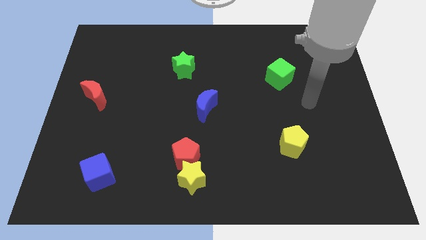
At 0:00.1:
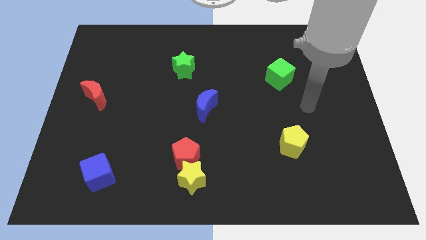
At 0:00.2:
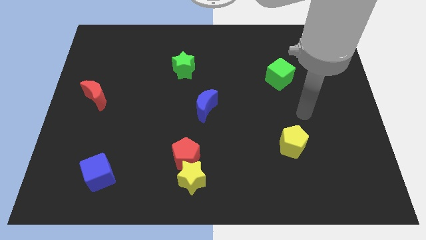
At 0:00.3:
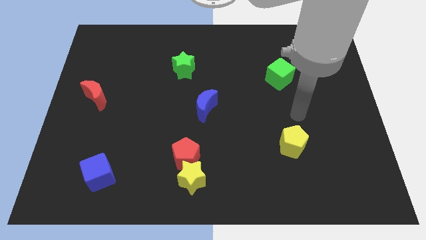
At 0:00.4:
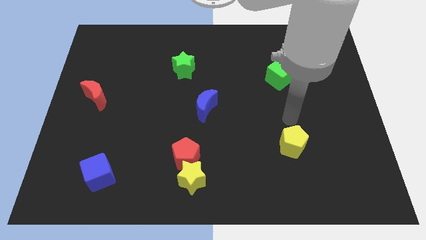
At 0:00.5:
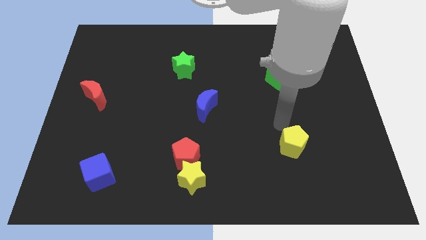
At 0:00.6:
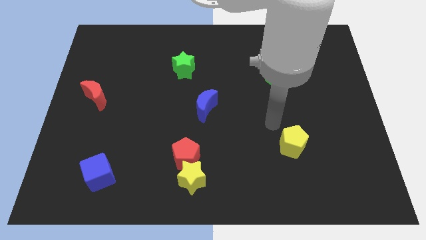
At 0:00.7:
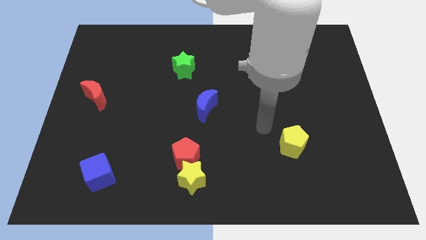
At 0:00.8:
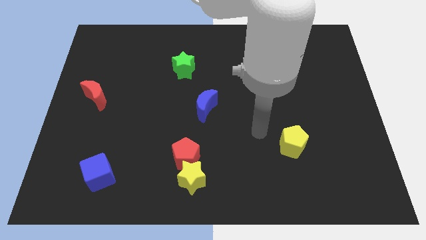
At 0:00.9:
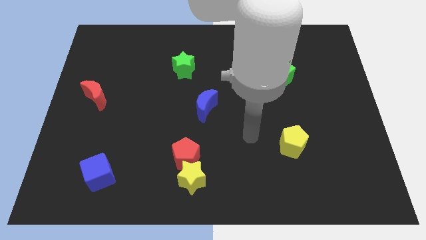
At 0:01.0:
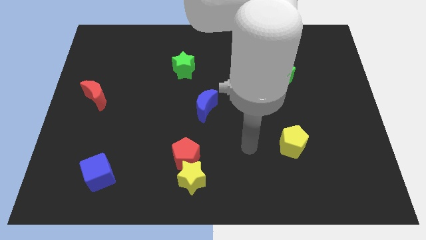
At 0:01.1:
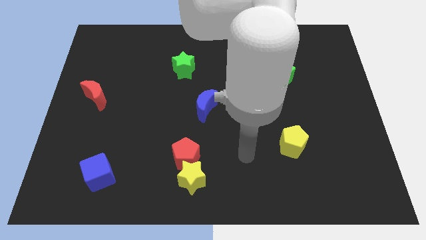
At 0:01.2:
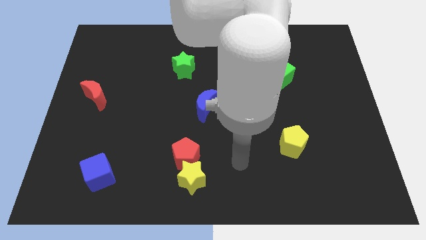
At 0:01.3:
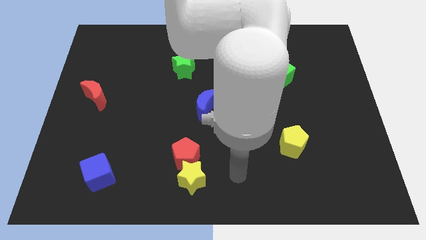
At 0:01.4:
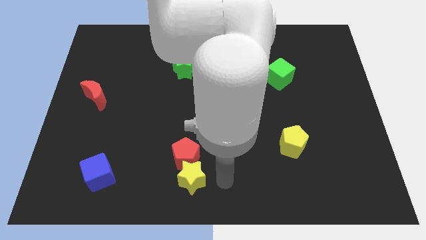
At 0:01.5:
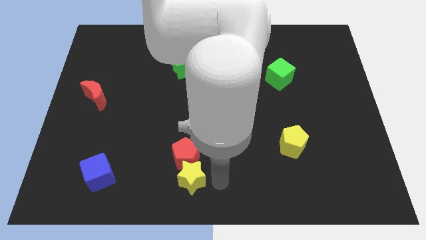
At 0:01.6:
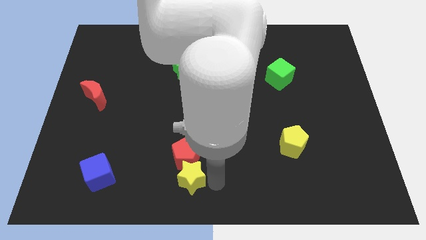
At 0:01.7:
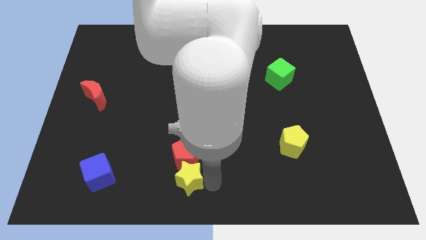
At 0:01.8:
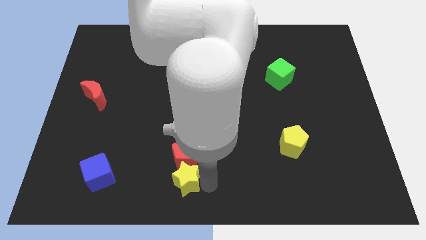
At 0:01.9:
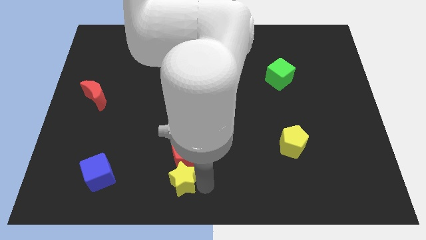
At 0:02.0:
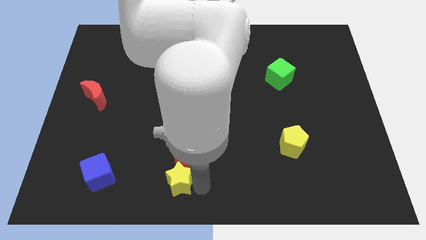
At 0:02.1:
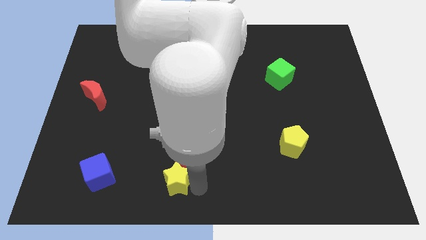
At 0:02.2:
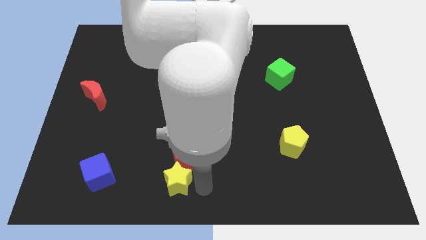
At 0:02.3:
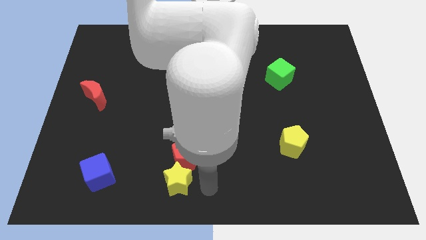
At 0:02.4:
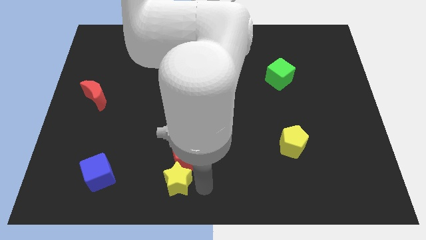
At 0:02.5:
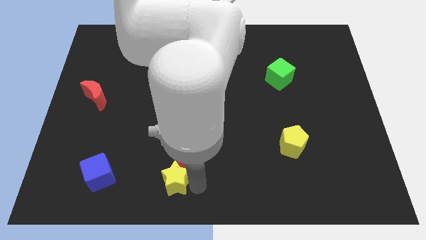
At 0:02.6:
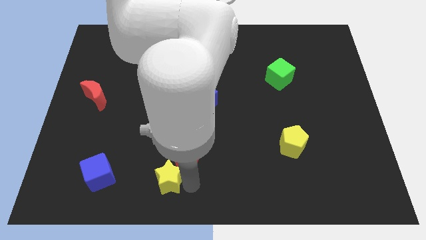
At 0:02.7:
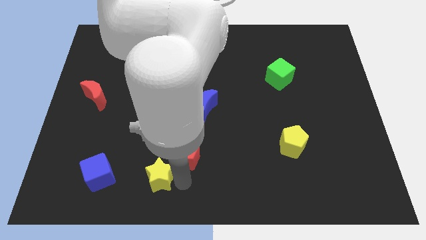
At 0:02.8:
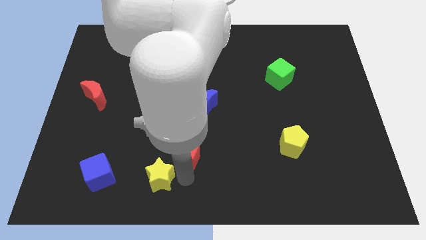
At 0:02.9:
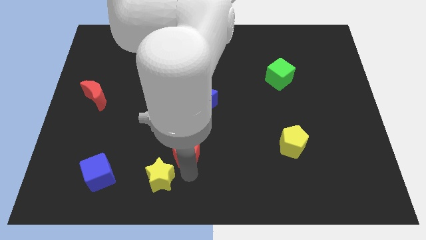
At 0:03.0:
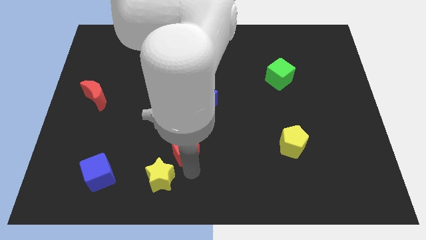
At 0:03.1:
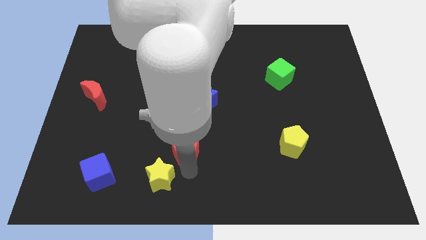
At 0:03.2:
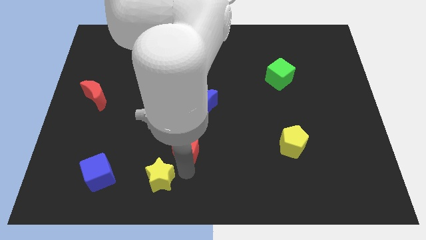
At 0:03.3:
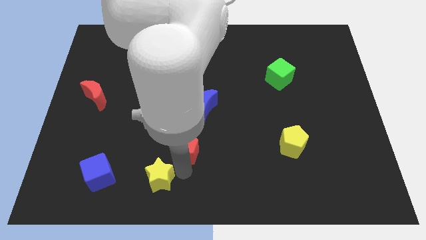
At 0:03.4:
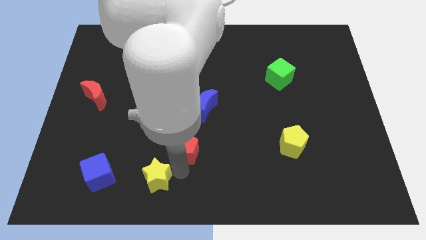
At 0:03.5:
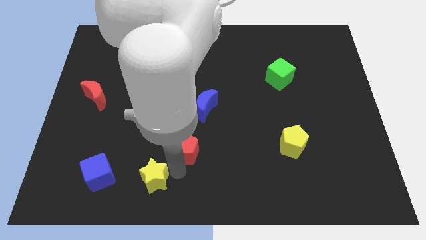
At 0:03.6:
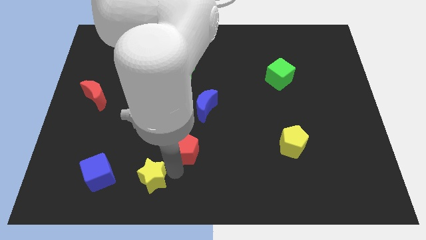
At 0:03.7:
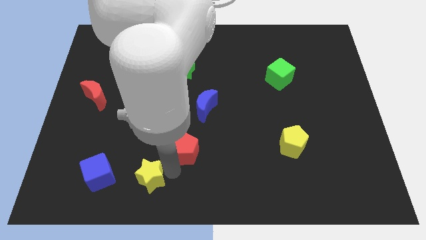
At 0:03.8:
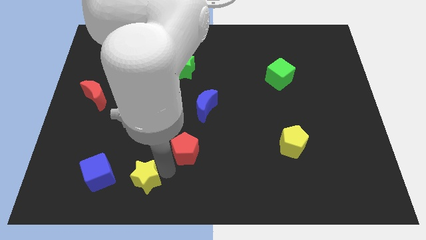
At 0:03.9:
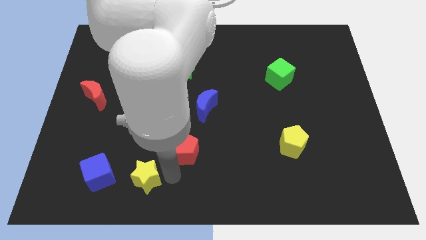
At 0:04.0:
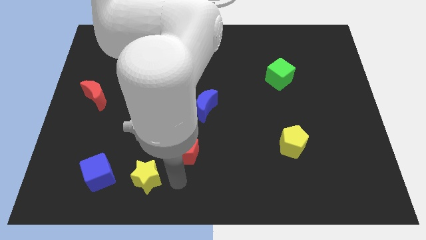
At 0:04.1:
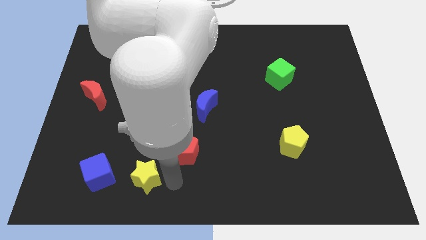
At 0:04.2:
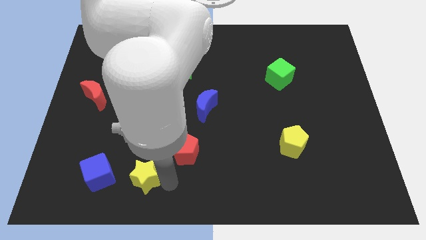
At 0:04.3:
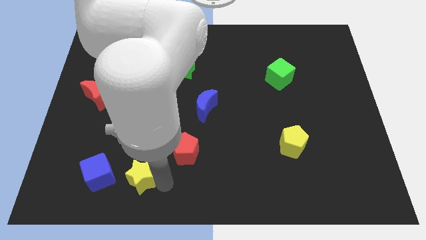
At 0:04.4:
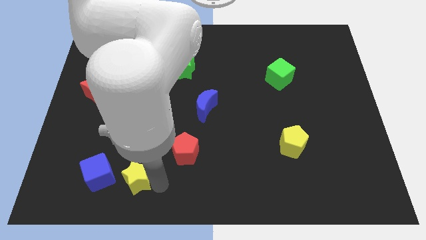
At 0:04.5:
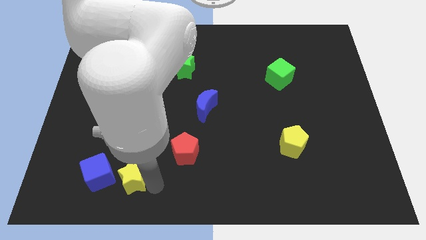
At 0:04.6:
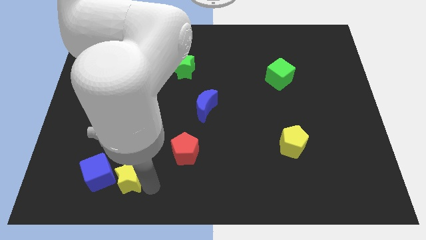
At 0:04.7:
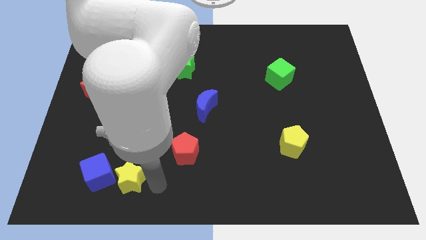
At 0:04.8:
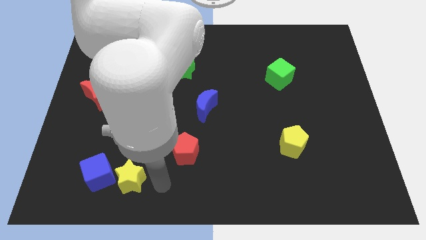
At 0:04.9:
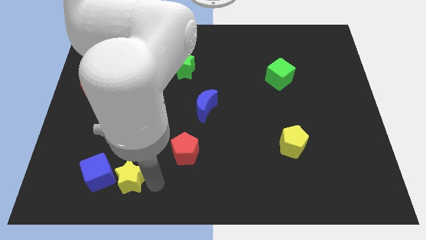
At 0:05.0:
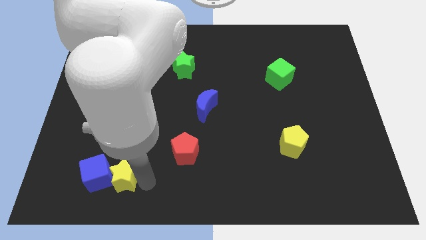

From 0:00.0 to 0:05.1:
move the yellow star towards the blue cube

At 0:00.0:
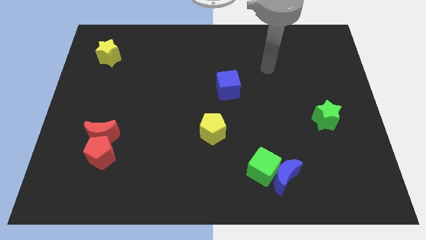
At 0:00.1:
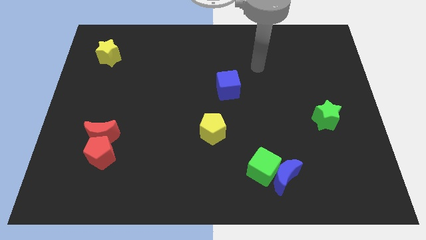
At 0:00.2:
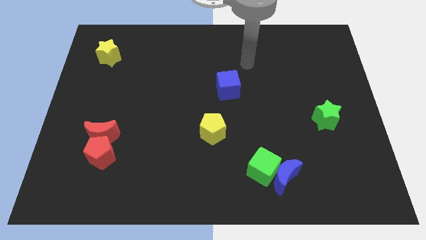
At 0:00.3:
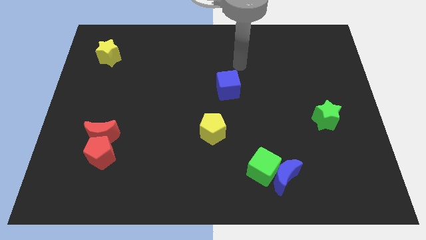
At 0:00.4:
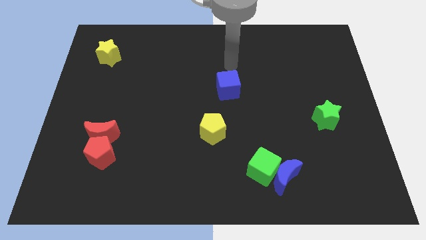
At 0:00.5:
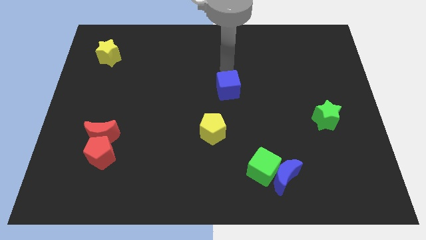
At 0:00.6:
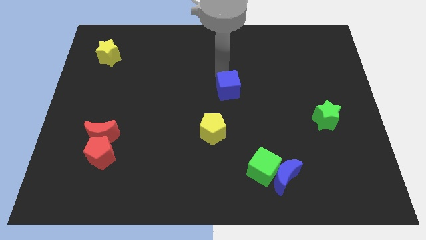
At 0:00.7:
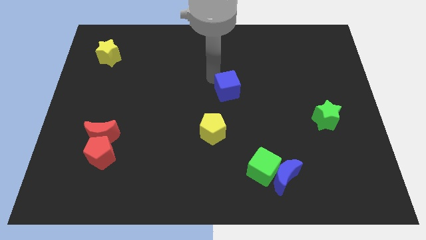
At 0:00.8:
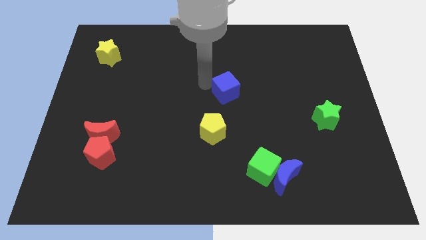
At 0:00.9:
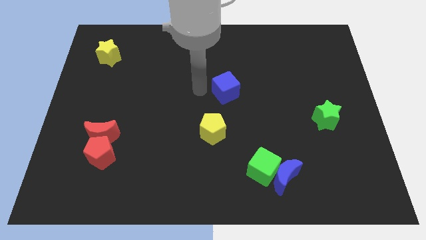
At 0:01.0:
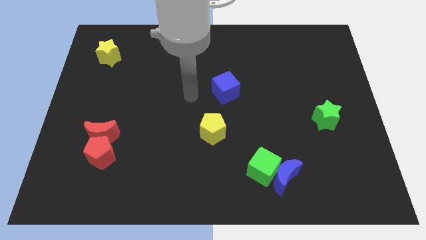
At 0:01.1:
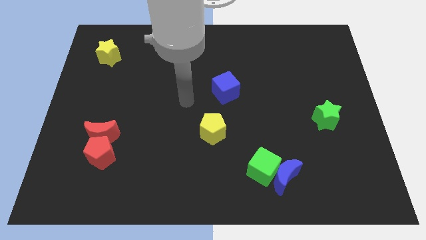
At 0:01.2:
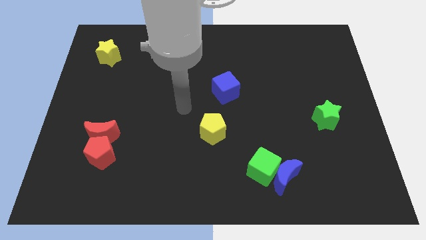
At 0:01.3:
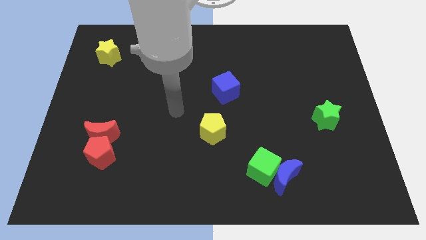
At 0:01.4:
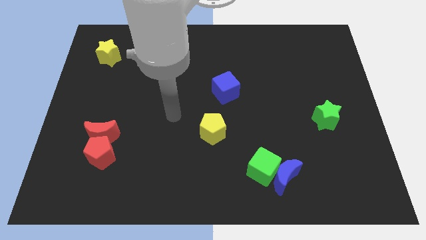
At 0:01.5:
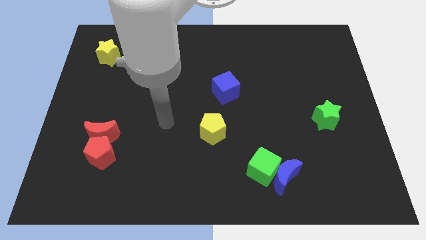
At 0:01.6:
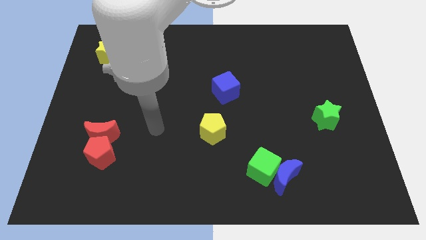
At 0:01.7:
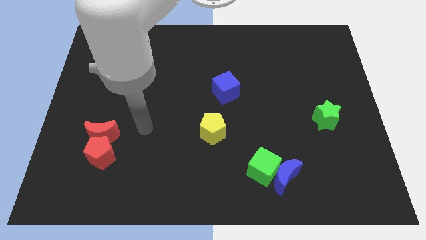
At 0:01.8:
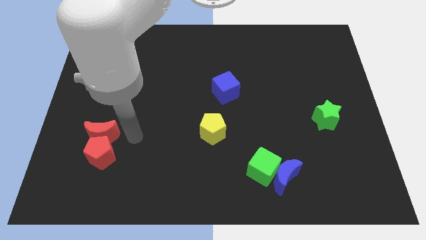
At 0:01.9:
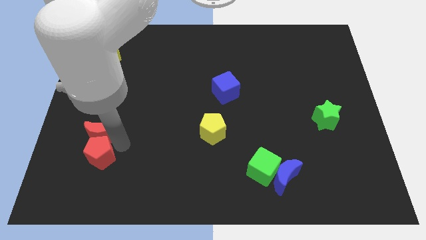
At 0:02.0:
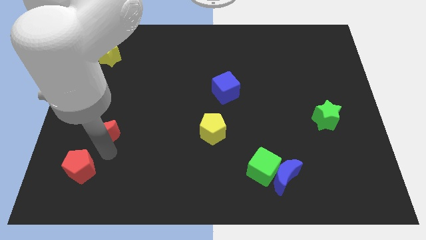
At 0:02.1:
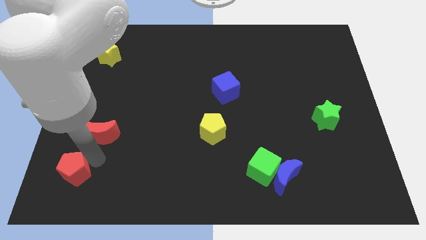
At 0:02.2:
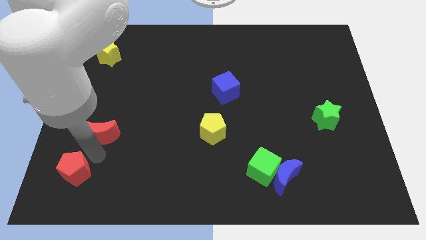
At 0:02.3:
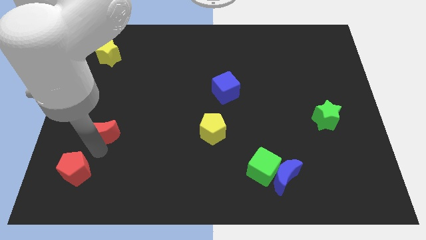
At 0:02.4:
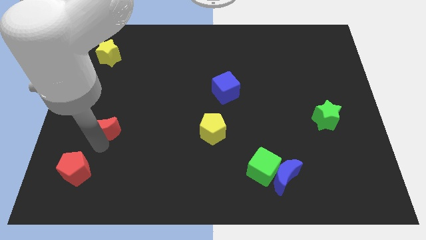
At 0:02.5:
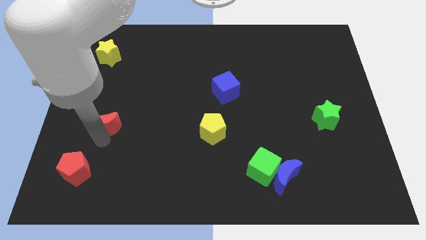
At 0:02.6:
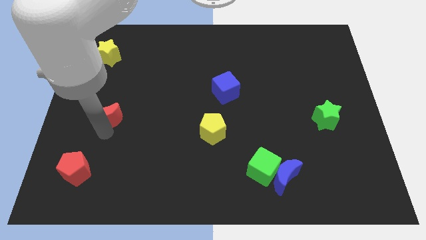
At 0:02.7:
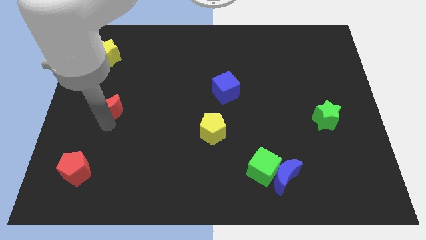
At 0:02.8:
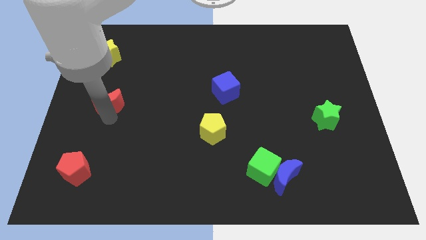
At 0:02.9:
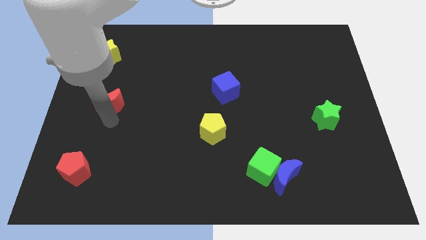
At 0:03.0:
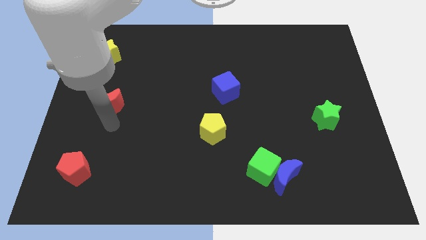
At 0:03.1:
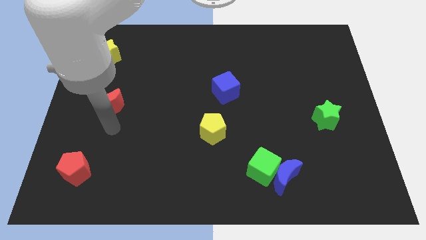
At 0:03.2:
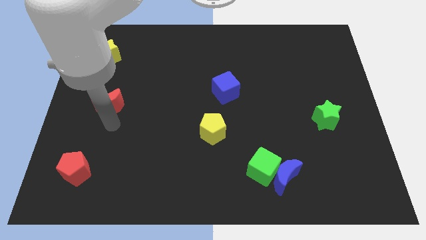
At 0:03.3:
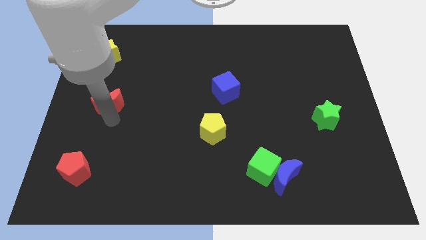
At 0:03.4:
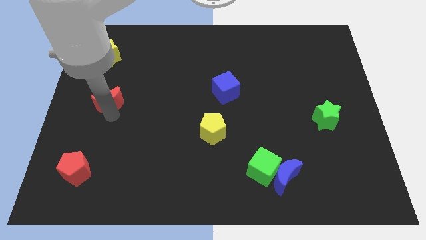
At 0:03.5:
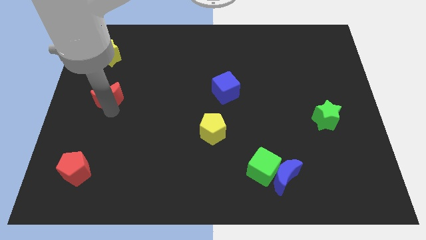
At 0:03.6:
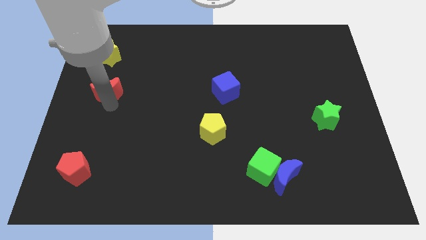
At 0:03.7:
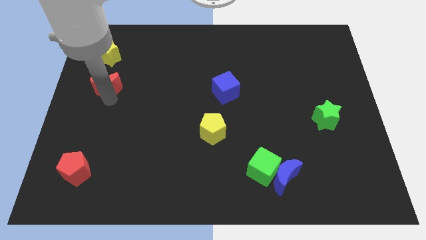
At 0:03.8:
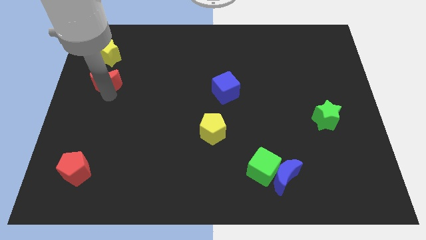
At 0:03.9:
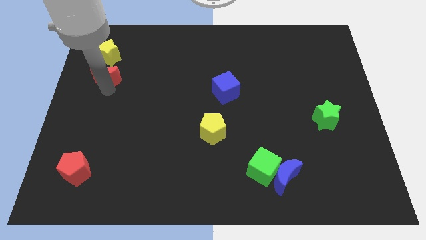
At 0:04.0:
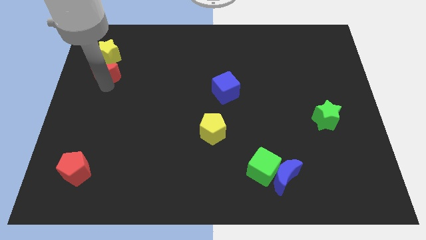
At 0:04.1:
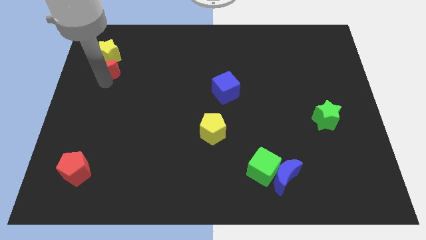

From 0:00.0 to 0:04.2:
put the red moon to the yellow star
